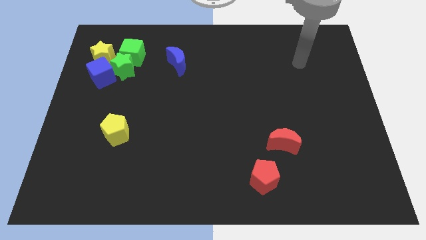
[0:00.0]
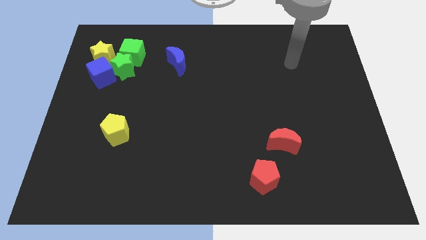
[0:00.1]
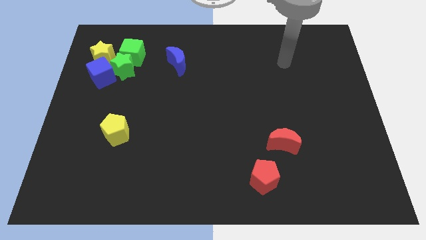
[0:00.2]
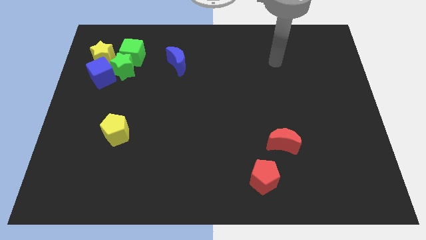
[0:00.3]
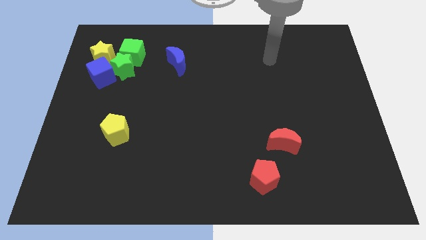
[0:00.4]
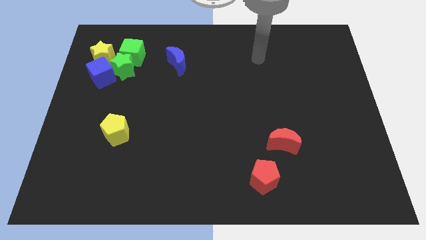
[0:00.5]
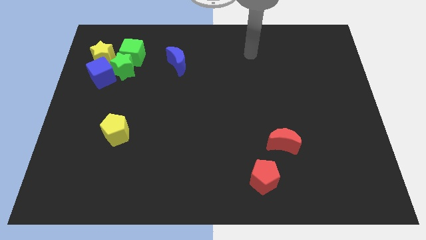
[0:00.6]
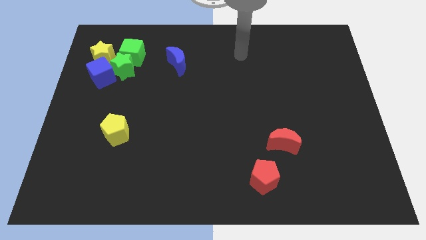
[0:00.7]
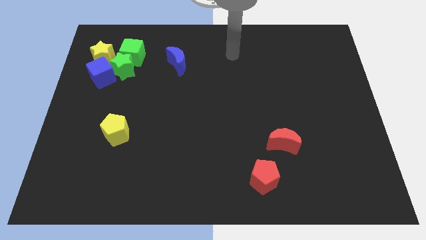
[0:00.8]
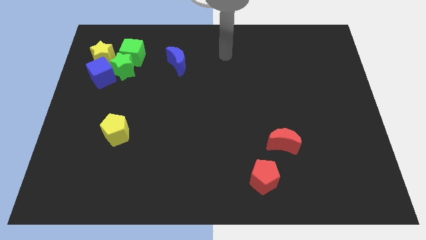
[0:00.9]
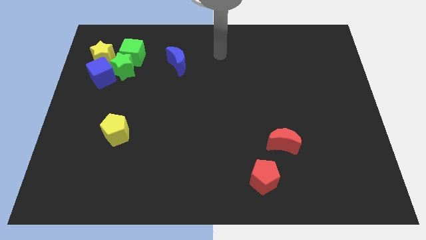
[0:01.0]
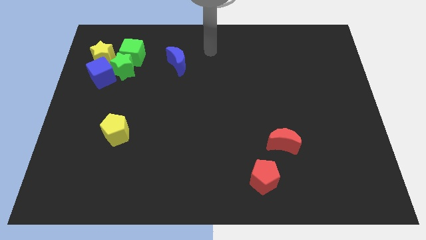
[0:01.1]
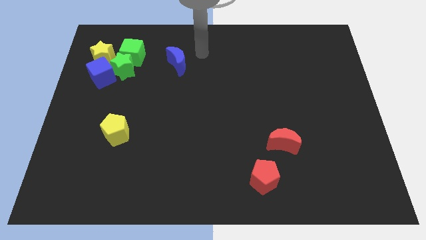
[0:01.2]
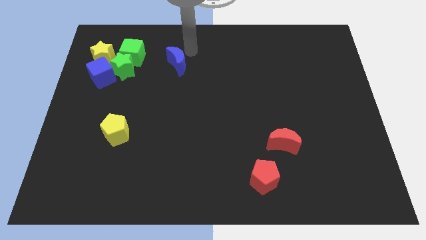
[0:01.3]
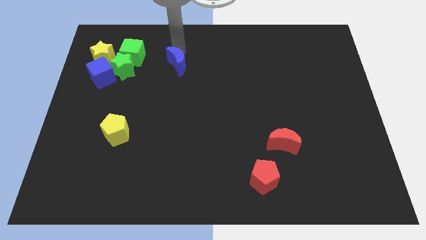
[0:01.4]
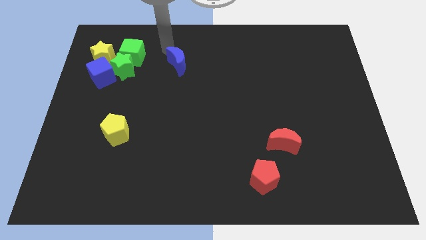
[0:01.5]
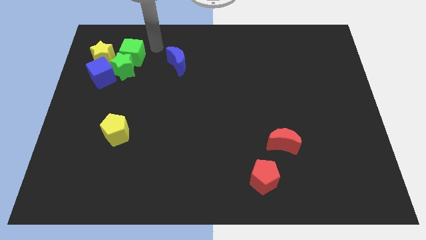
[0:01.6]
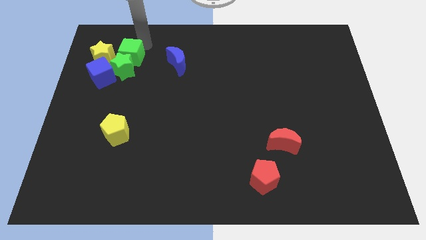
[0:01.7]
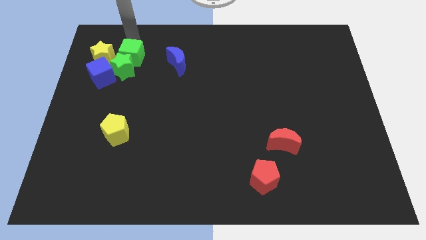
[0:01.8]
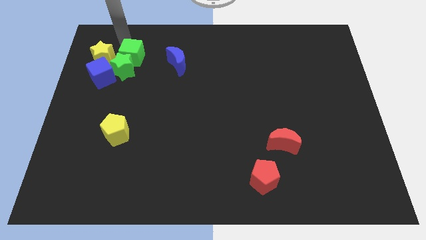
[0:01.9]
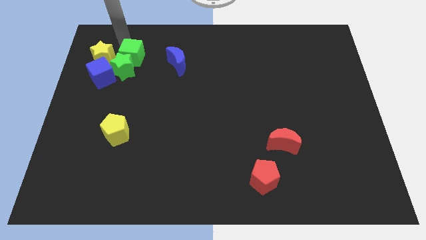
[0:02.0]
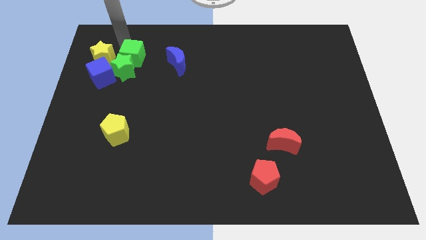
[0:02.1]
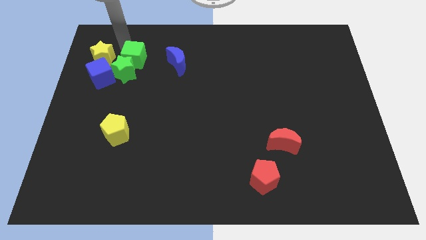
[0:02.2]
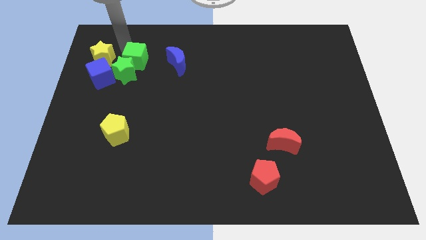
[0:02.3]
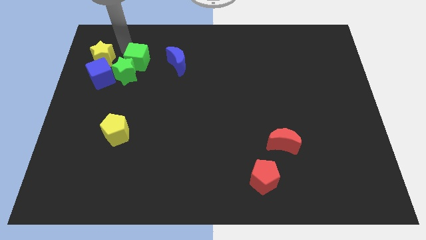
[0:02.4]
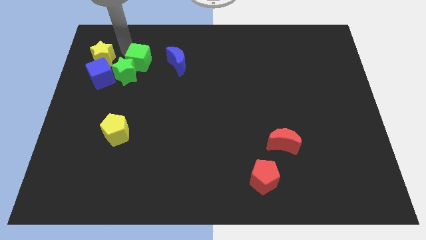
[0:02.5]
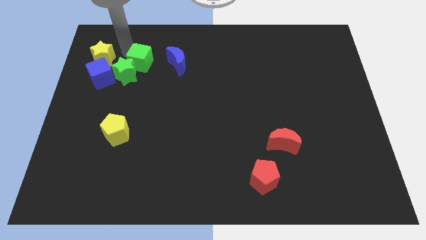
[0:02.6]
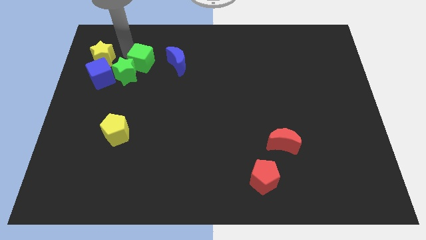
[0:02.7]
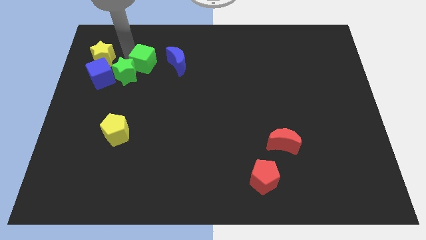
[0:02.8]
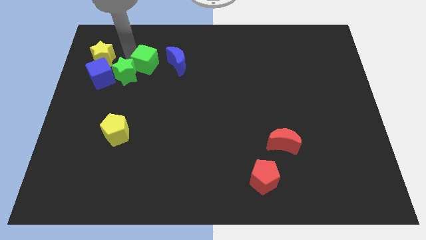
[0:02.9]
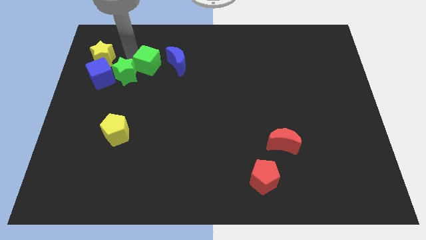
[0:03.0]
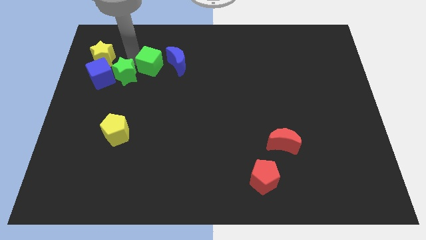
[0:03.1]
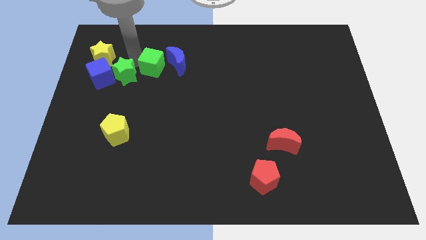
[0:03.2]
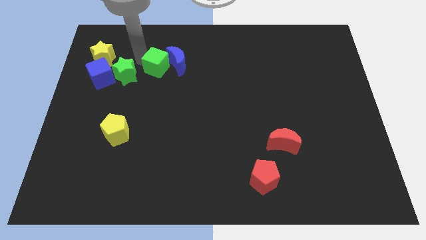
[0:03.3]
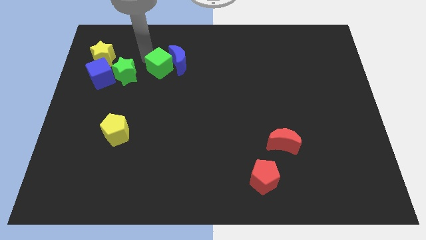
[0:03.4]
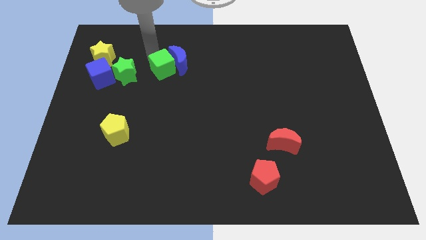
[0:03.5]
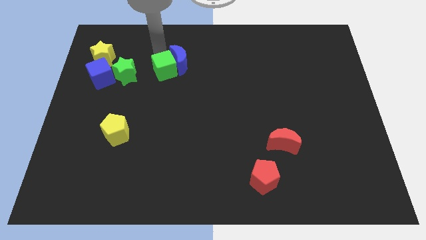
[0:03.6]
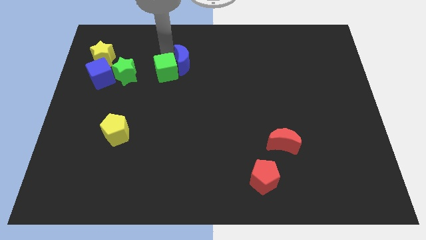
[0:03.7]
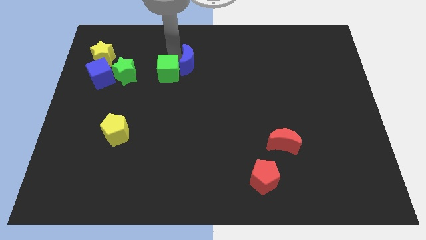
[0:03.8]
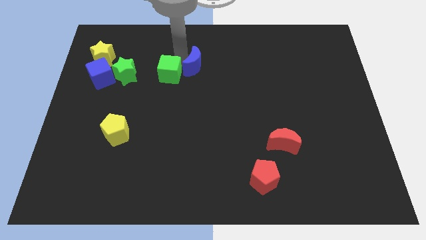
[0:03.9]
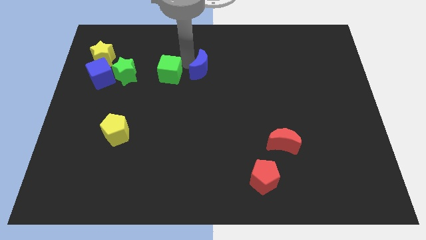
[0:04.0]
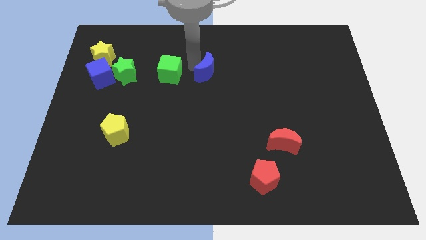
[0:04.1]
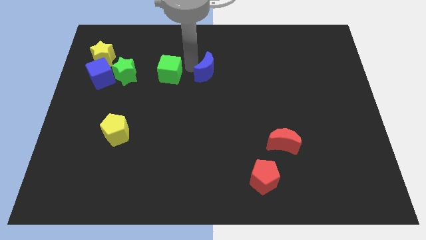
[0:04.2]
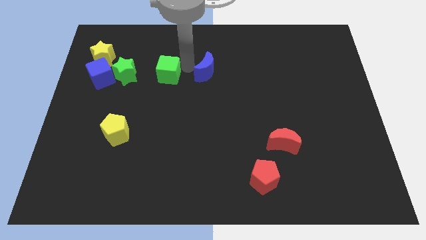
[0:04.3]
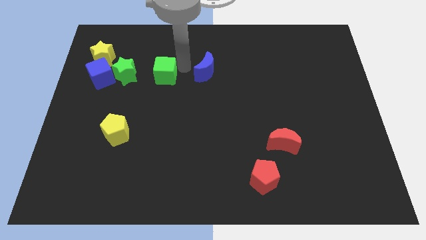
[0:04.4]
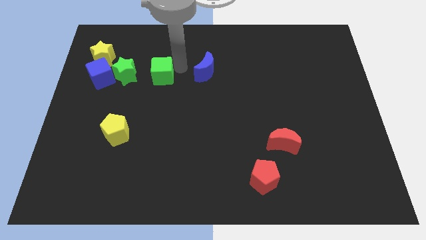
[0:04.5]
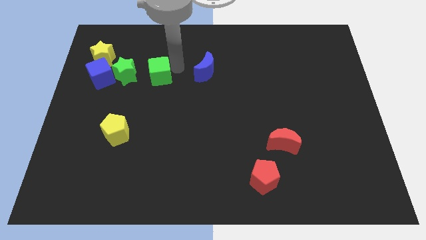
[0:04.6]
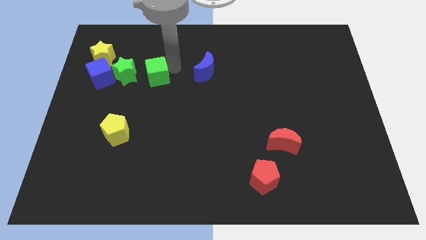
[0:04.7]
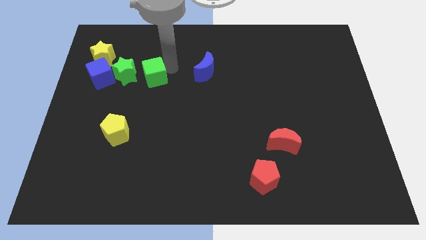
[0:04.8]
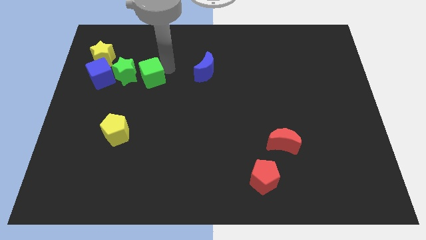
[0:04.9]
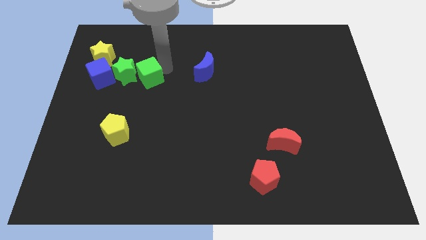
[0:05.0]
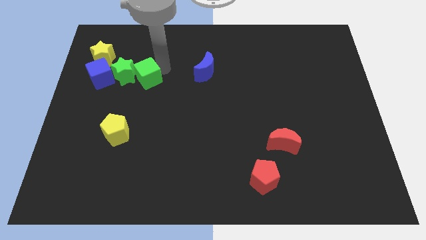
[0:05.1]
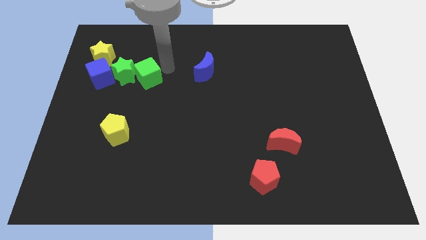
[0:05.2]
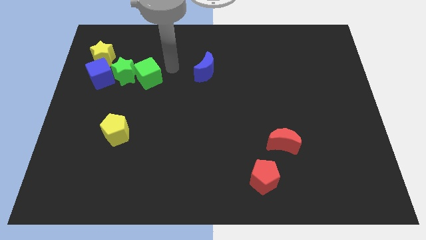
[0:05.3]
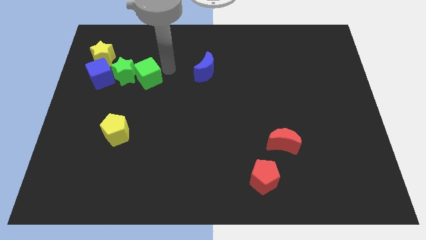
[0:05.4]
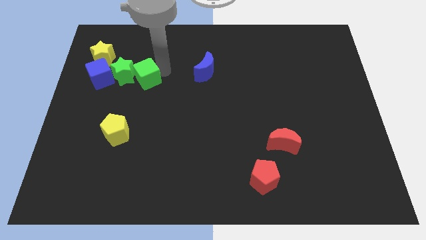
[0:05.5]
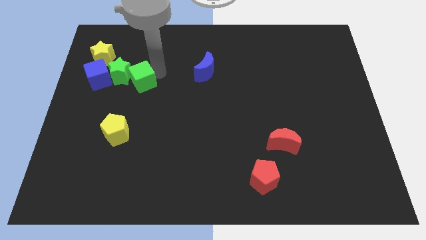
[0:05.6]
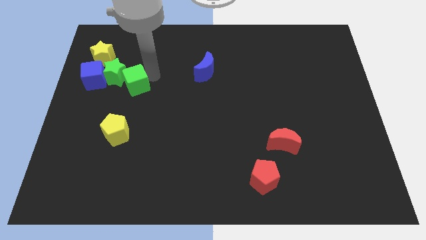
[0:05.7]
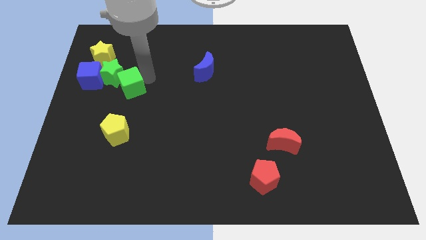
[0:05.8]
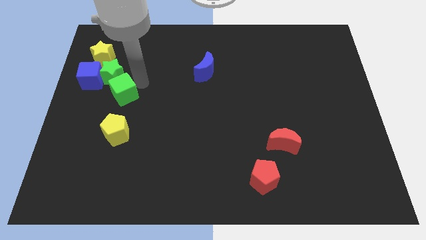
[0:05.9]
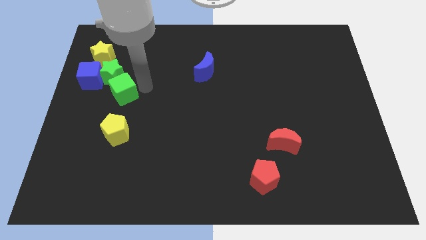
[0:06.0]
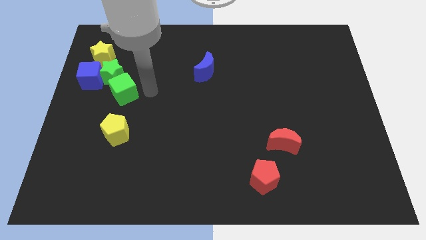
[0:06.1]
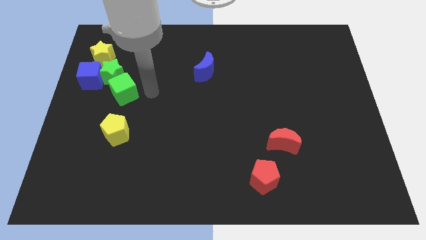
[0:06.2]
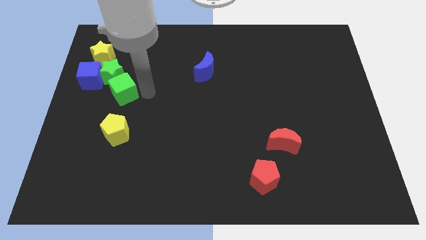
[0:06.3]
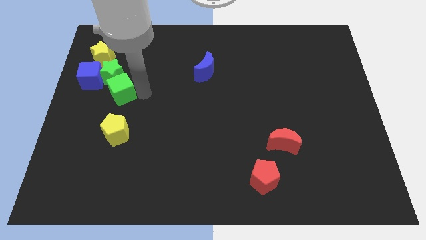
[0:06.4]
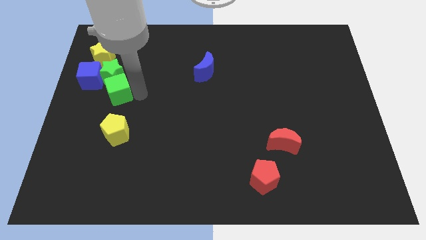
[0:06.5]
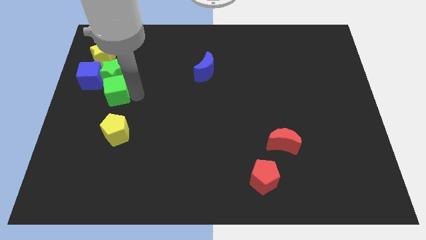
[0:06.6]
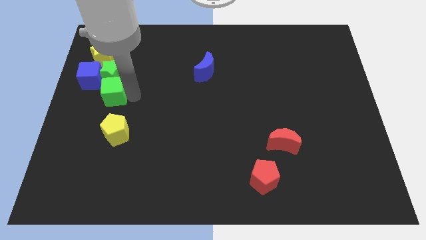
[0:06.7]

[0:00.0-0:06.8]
push the green cube to the bottom left of the green star

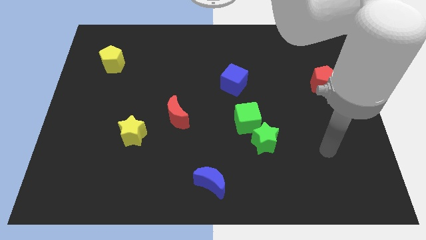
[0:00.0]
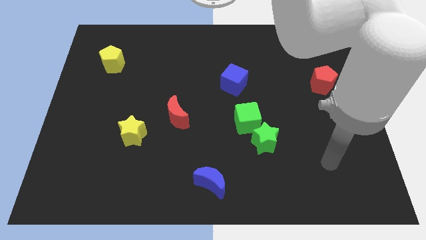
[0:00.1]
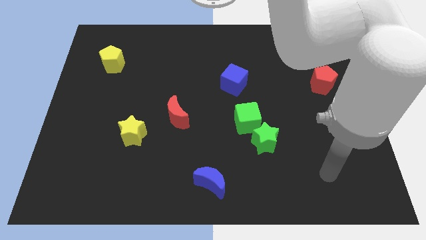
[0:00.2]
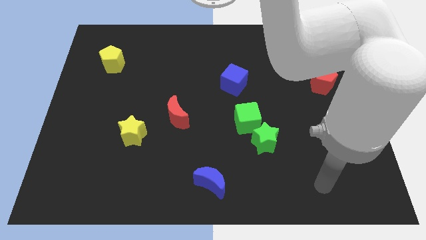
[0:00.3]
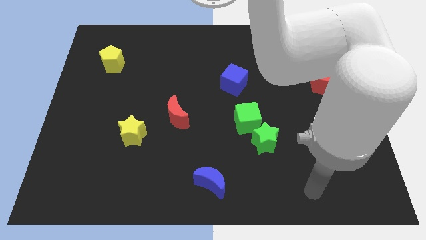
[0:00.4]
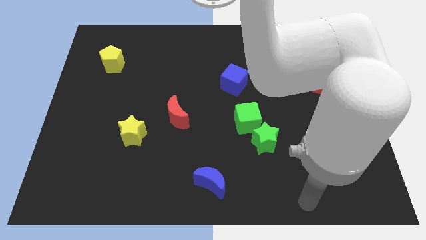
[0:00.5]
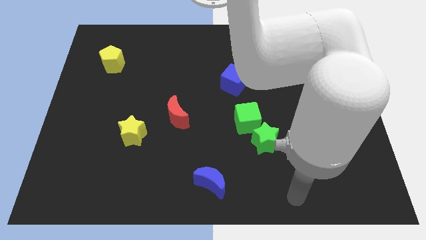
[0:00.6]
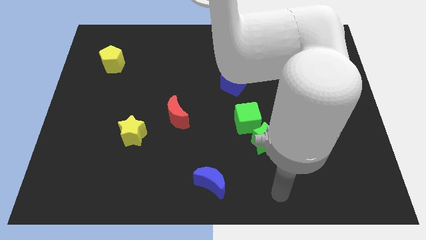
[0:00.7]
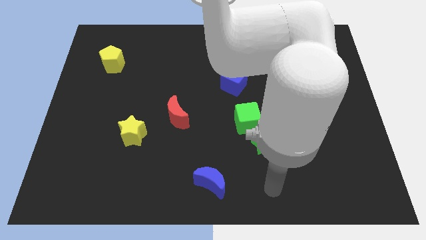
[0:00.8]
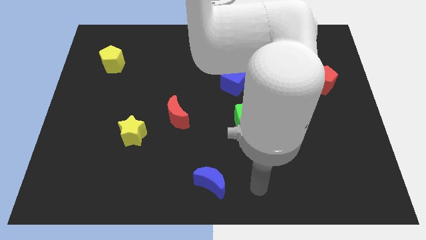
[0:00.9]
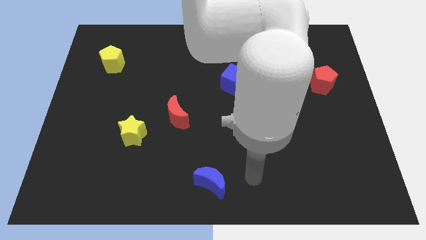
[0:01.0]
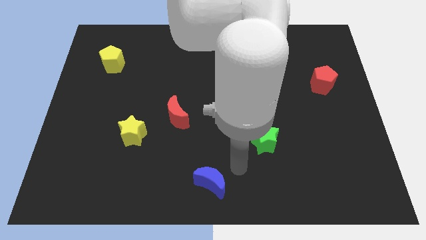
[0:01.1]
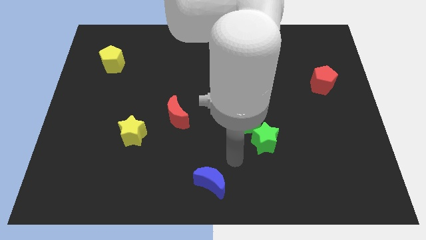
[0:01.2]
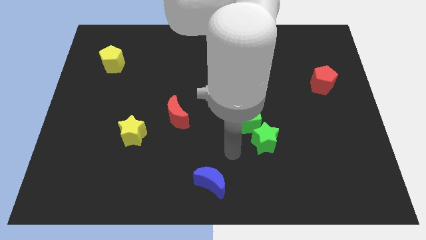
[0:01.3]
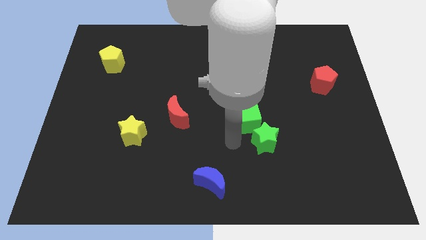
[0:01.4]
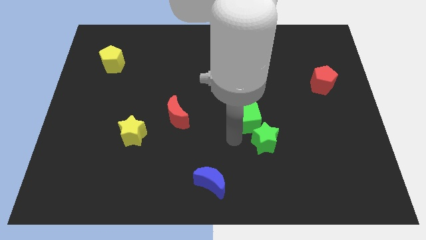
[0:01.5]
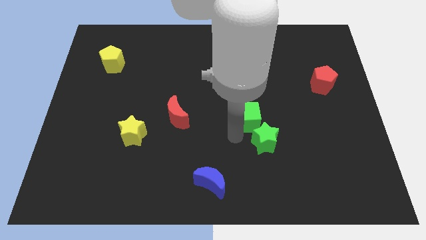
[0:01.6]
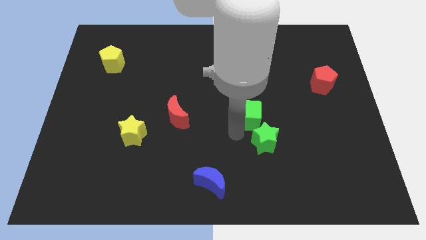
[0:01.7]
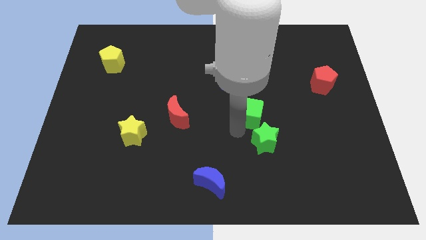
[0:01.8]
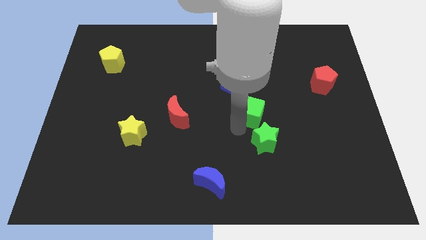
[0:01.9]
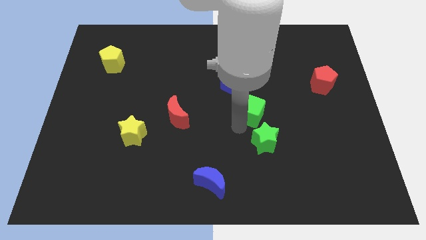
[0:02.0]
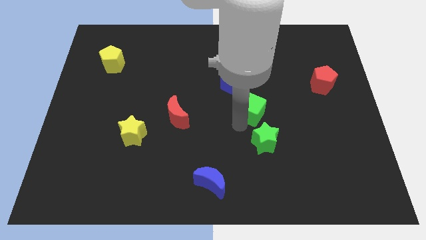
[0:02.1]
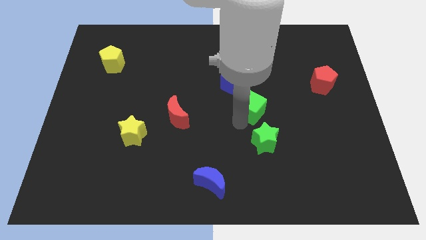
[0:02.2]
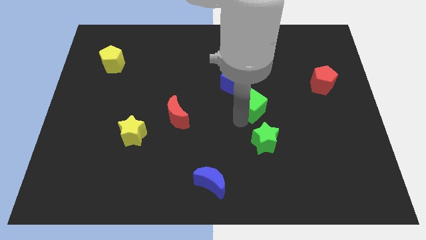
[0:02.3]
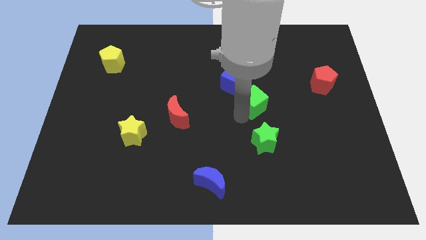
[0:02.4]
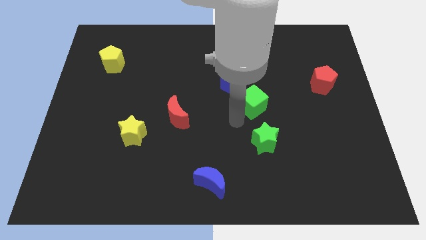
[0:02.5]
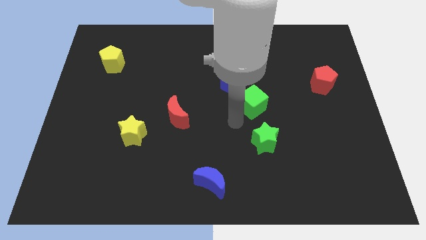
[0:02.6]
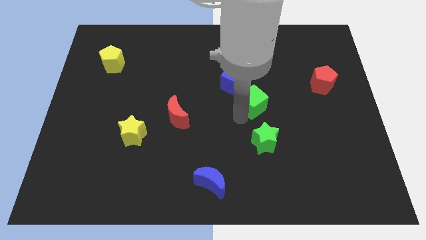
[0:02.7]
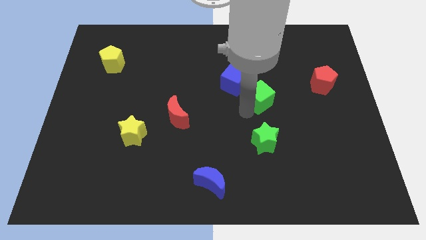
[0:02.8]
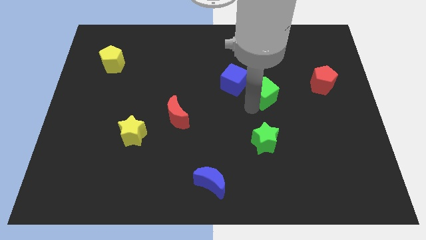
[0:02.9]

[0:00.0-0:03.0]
slide the green cube to the right of the blue cube
